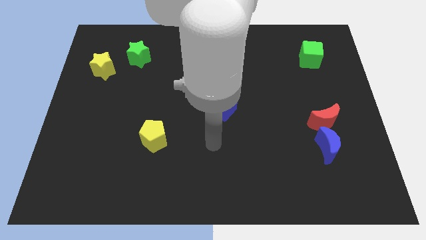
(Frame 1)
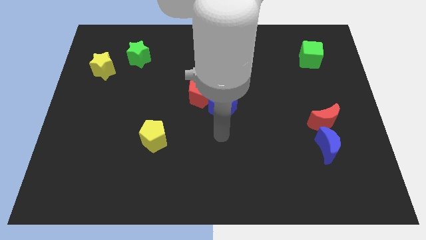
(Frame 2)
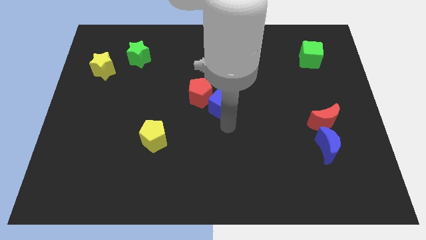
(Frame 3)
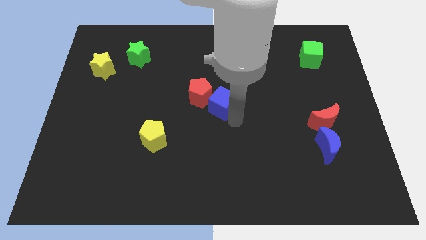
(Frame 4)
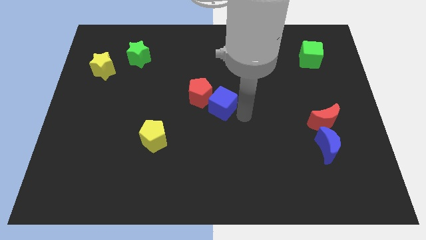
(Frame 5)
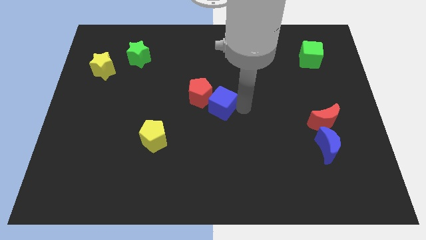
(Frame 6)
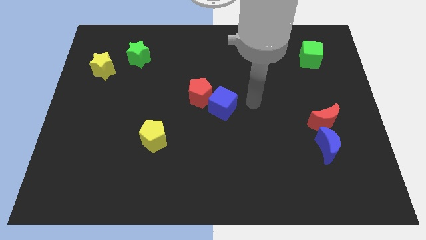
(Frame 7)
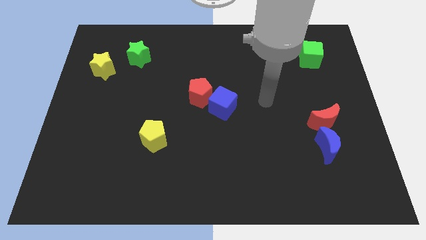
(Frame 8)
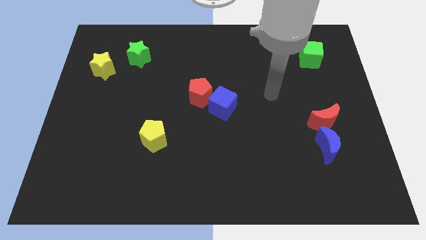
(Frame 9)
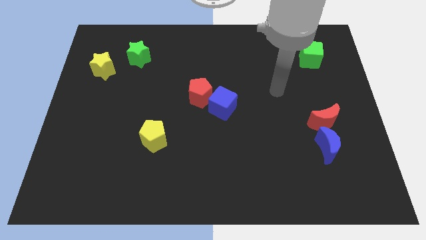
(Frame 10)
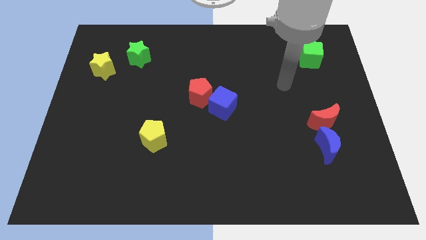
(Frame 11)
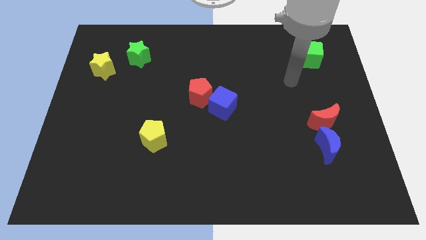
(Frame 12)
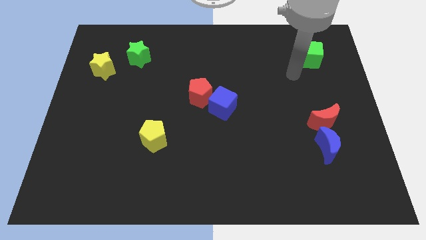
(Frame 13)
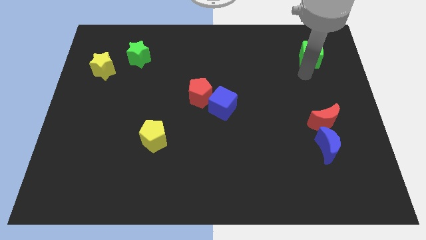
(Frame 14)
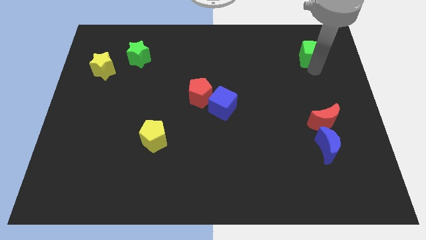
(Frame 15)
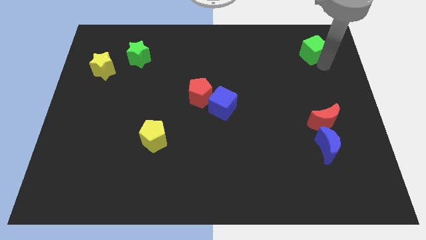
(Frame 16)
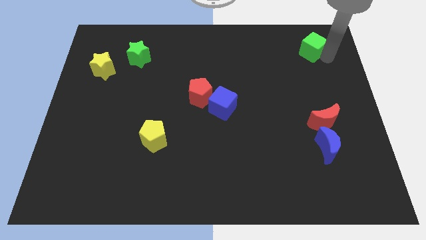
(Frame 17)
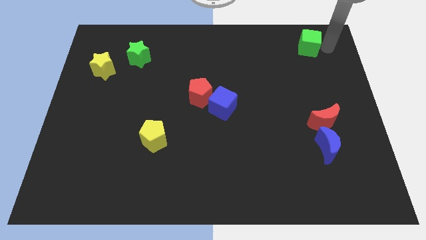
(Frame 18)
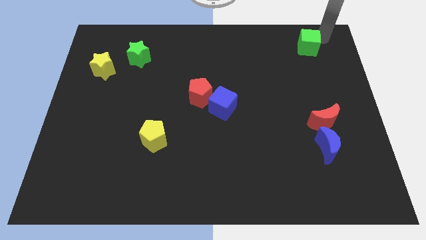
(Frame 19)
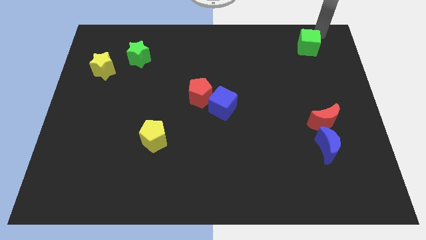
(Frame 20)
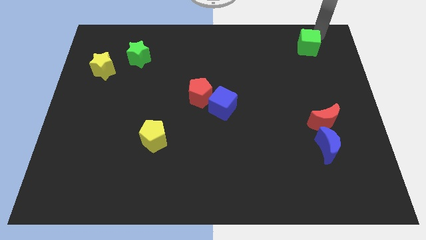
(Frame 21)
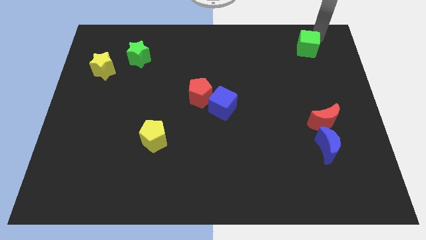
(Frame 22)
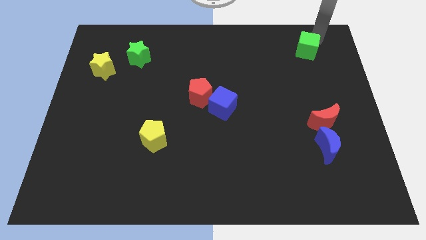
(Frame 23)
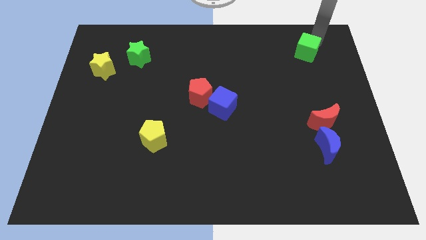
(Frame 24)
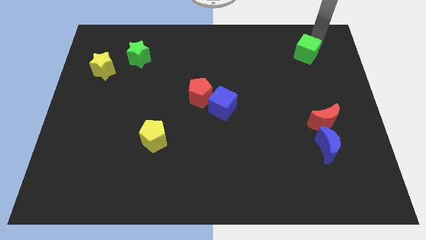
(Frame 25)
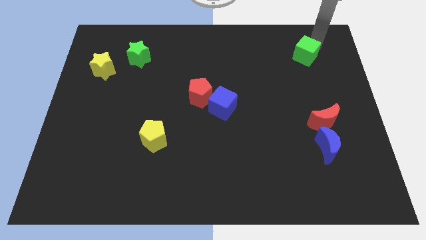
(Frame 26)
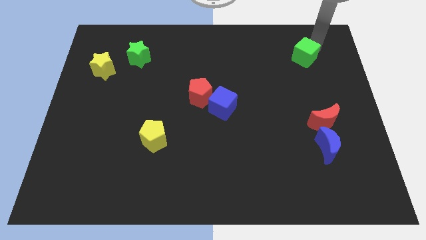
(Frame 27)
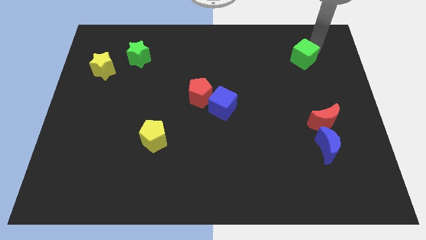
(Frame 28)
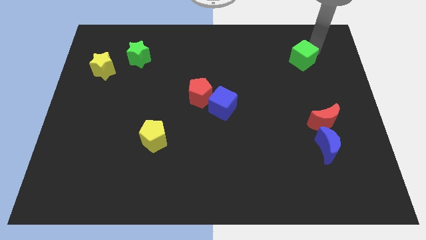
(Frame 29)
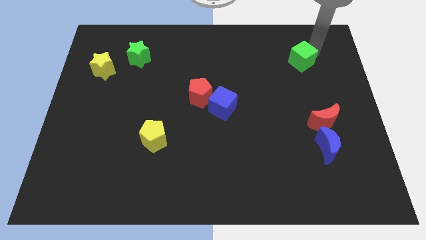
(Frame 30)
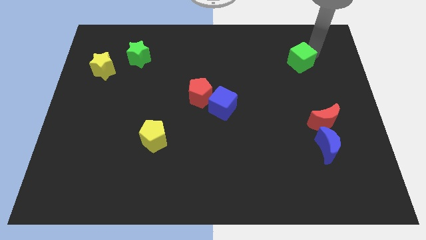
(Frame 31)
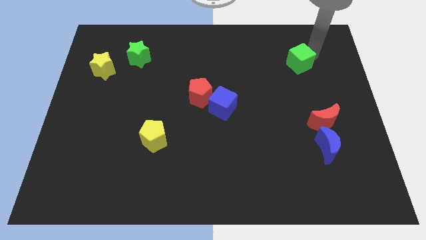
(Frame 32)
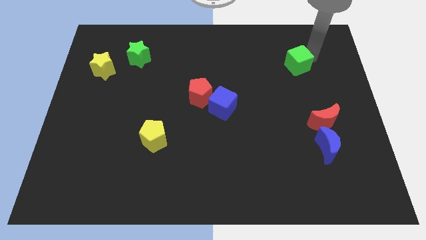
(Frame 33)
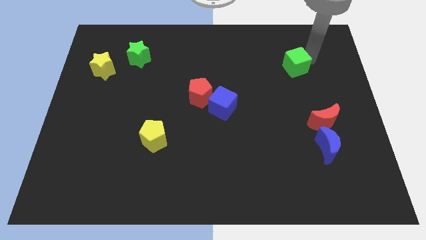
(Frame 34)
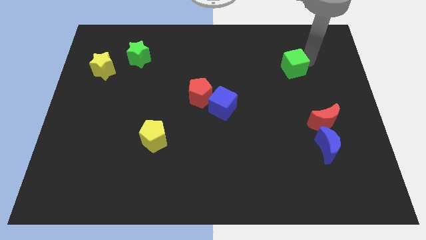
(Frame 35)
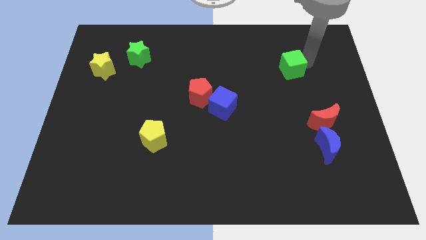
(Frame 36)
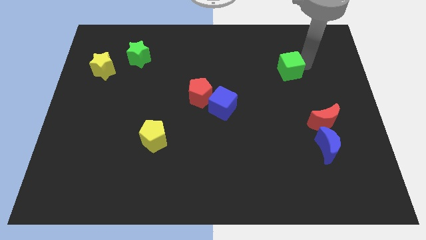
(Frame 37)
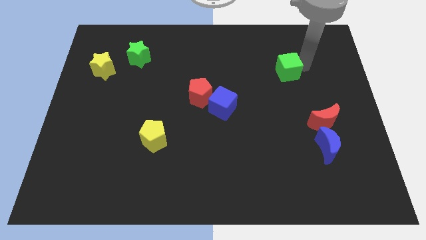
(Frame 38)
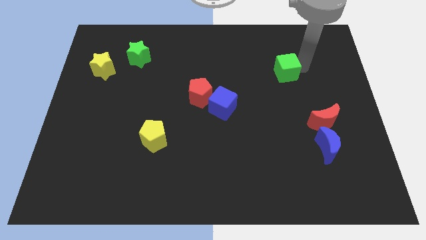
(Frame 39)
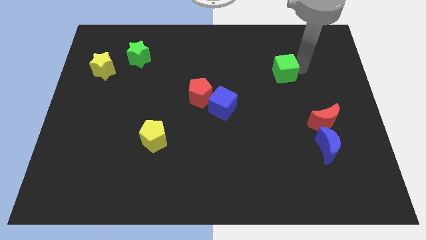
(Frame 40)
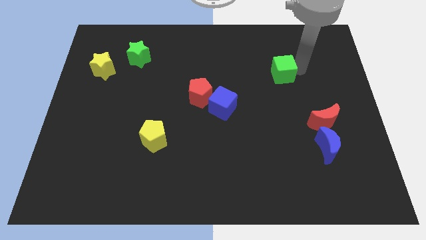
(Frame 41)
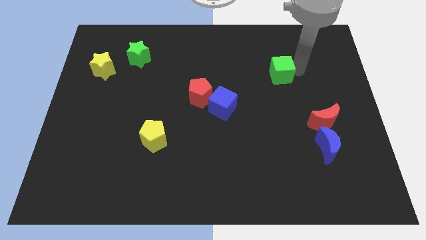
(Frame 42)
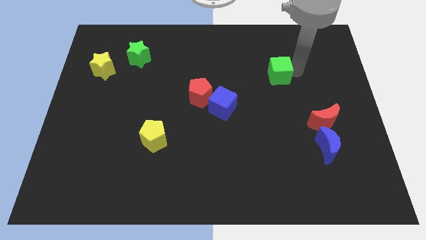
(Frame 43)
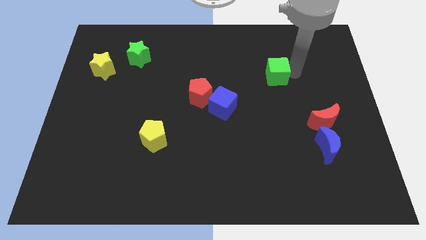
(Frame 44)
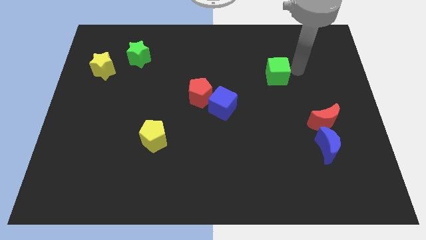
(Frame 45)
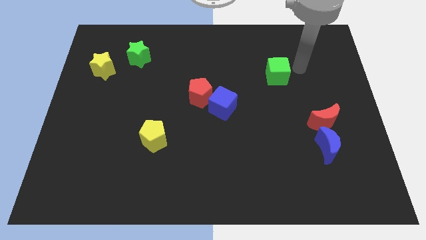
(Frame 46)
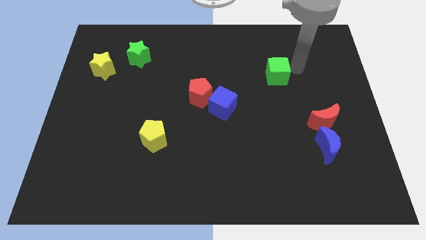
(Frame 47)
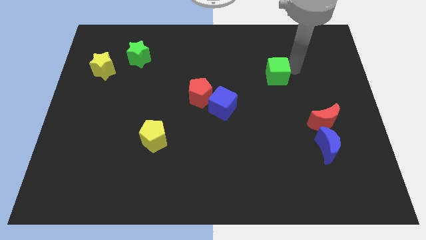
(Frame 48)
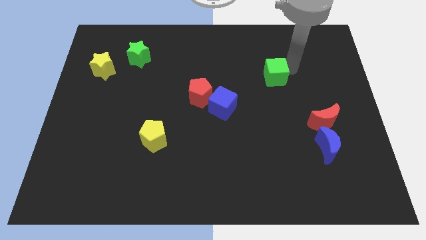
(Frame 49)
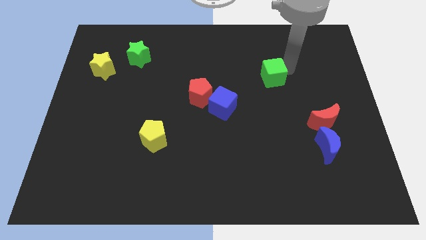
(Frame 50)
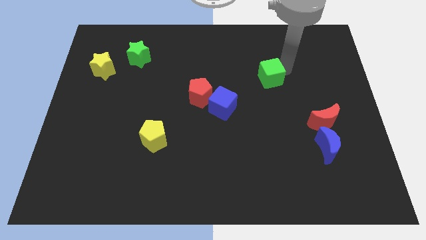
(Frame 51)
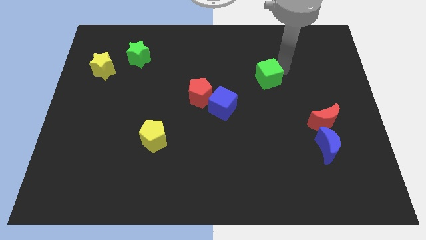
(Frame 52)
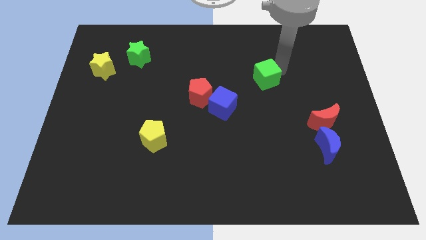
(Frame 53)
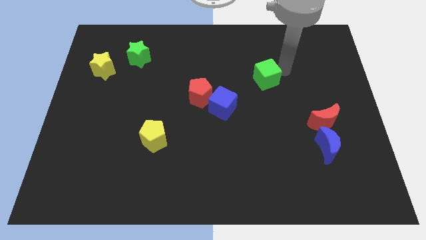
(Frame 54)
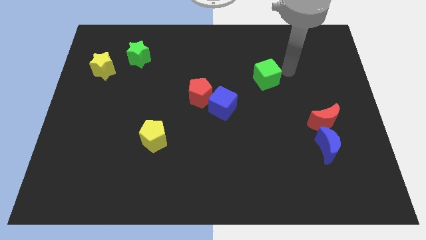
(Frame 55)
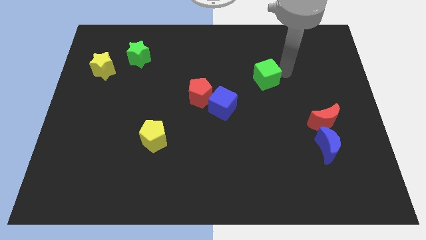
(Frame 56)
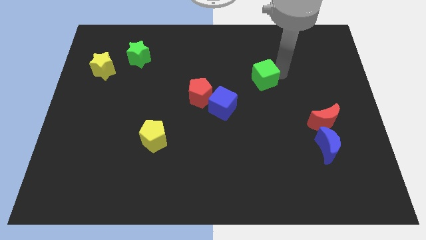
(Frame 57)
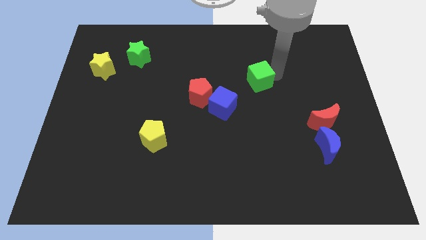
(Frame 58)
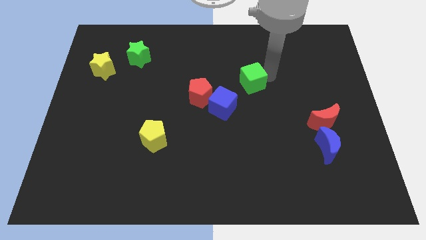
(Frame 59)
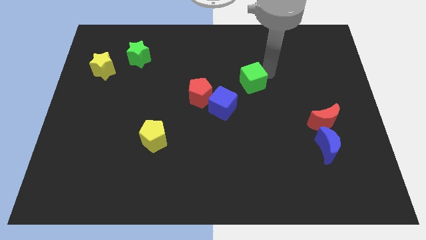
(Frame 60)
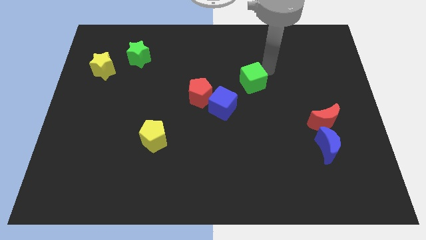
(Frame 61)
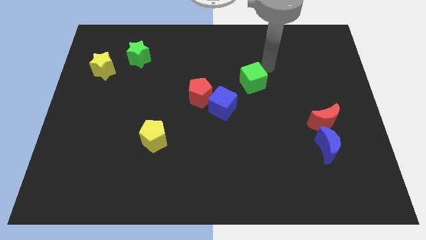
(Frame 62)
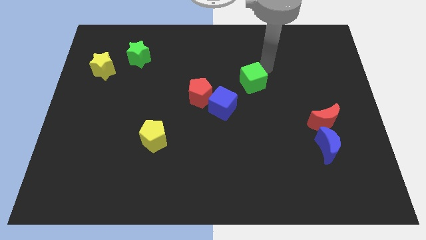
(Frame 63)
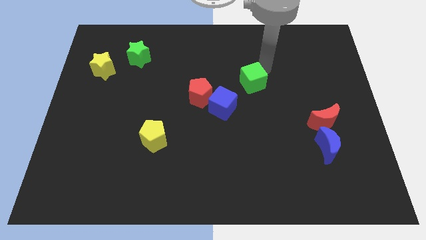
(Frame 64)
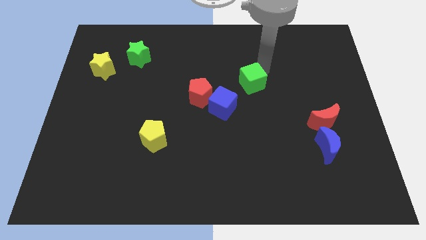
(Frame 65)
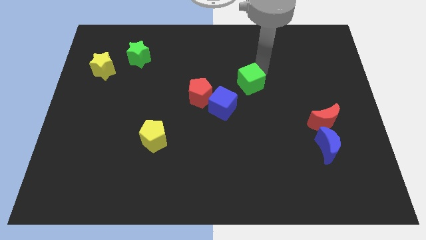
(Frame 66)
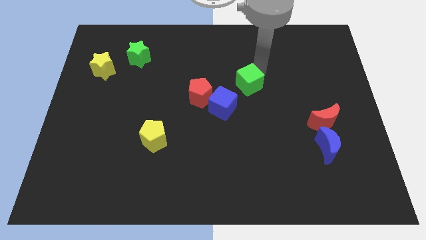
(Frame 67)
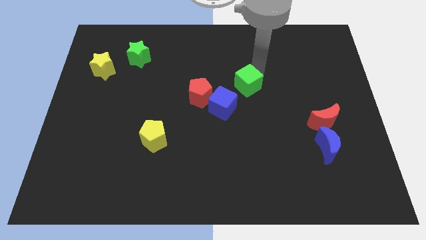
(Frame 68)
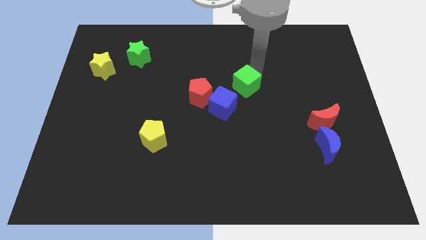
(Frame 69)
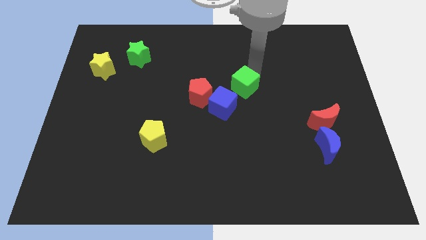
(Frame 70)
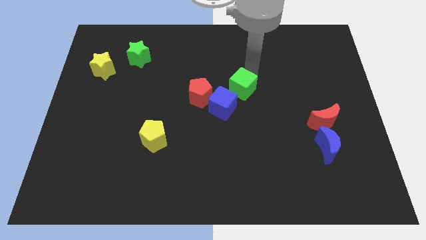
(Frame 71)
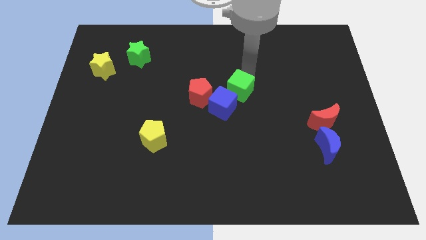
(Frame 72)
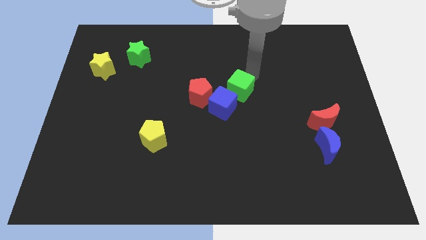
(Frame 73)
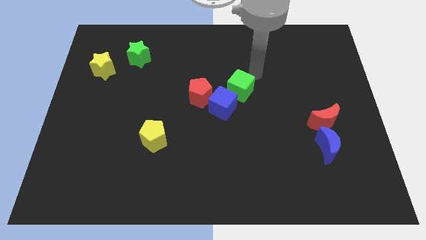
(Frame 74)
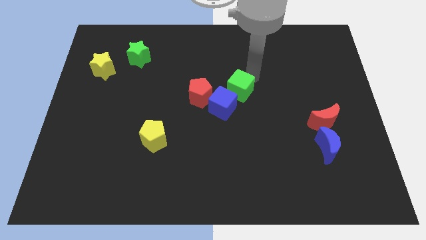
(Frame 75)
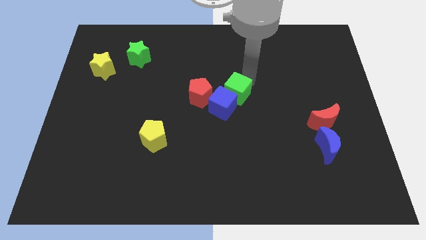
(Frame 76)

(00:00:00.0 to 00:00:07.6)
push the green cube towards the blue cube
